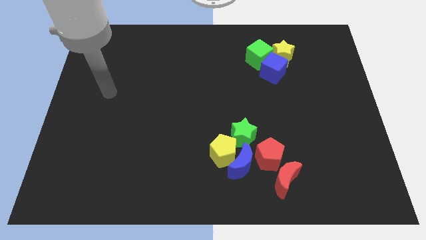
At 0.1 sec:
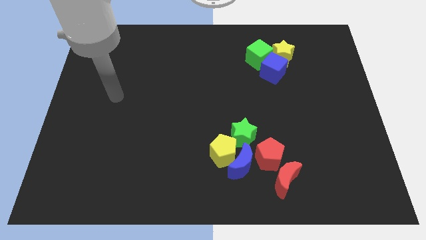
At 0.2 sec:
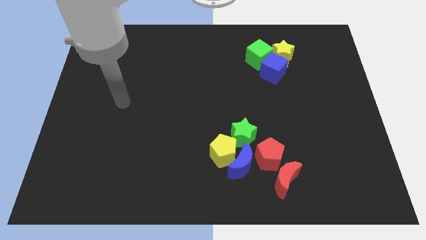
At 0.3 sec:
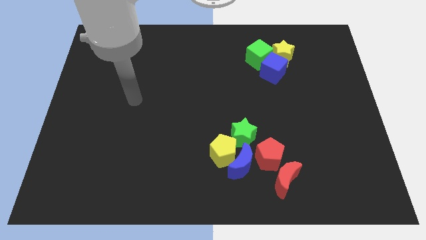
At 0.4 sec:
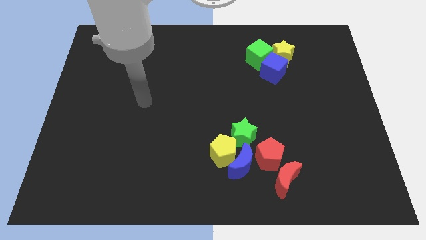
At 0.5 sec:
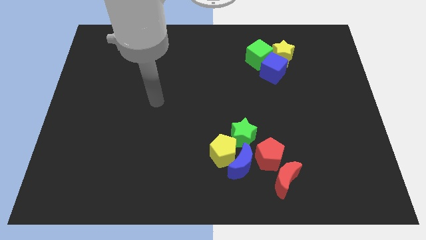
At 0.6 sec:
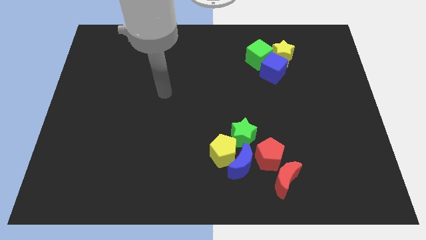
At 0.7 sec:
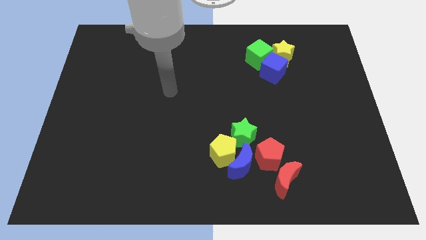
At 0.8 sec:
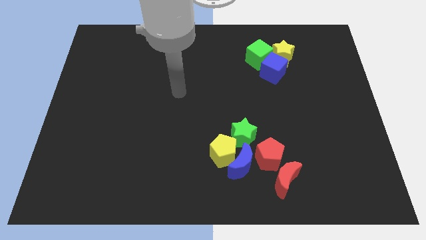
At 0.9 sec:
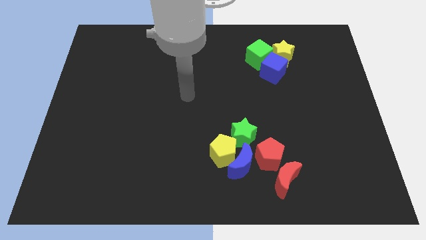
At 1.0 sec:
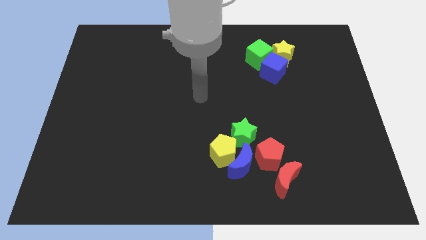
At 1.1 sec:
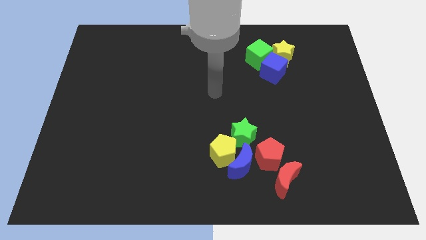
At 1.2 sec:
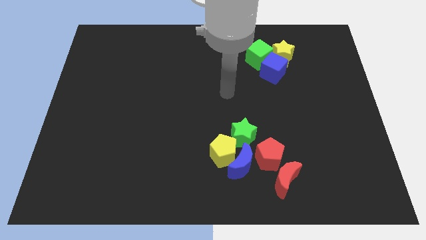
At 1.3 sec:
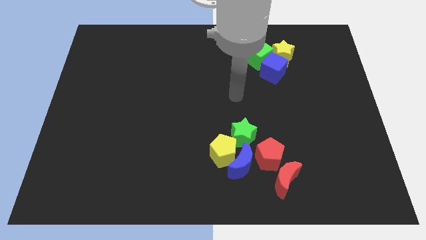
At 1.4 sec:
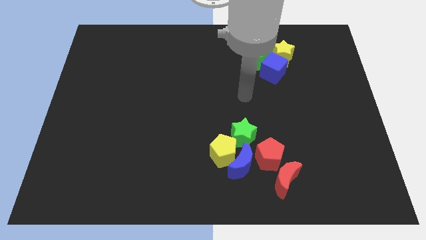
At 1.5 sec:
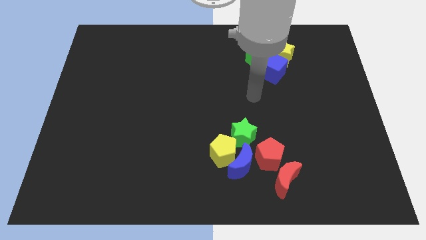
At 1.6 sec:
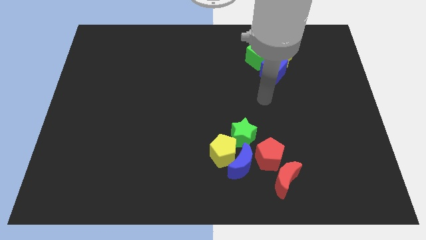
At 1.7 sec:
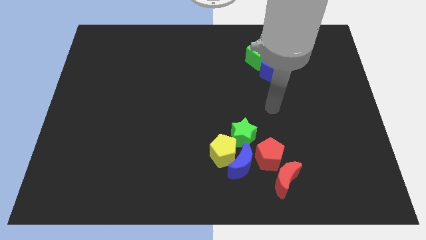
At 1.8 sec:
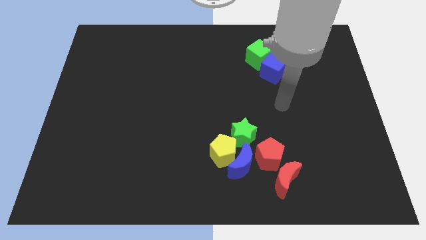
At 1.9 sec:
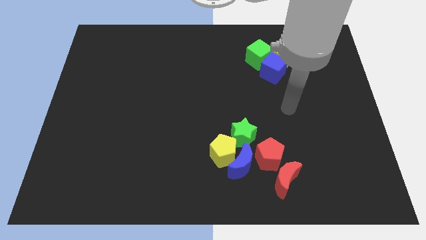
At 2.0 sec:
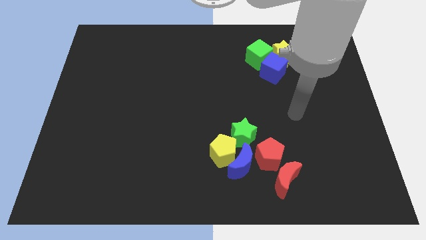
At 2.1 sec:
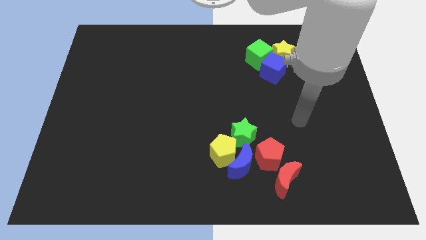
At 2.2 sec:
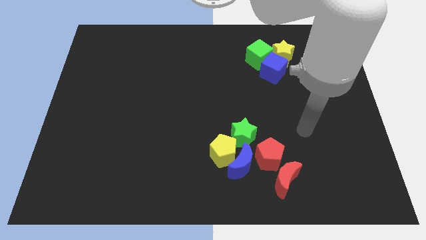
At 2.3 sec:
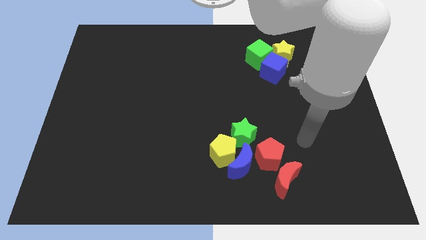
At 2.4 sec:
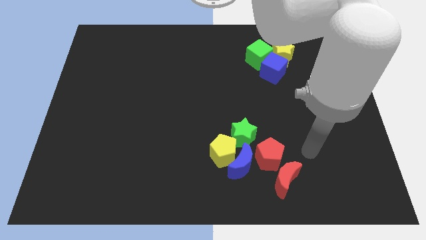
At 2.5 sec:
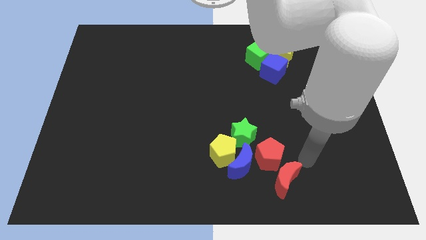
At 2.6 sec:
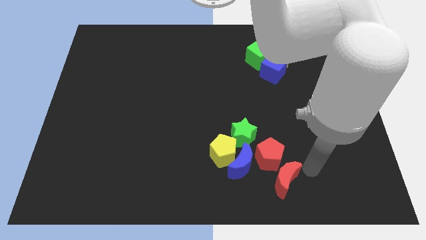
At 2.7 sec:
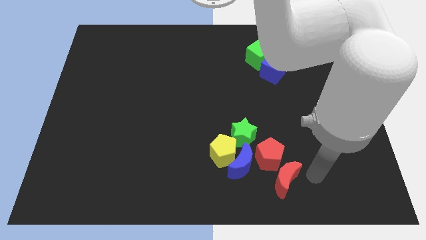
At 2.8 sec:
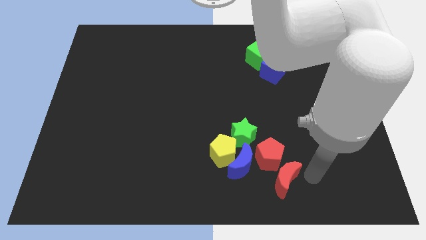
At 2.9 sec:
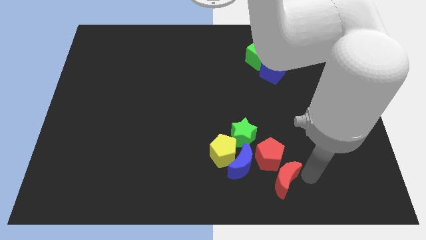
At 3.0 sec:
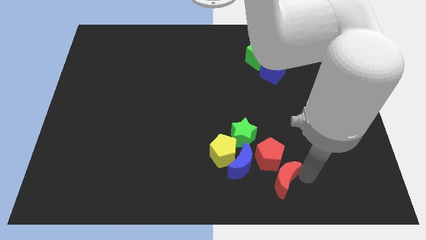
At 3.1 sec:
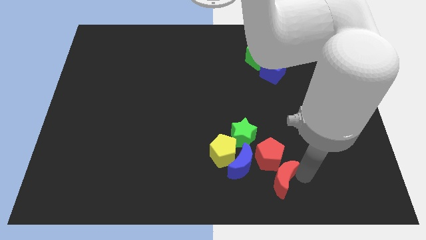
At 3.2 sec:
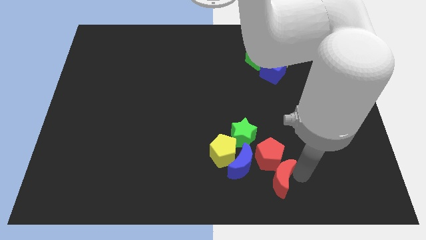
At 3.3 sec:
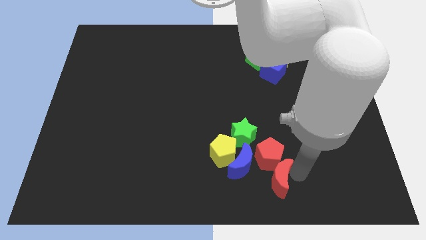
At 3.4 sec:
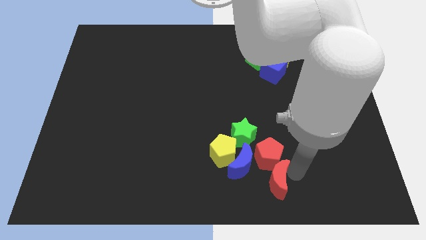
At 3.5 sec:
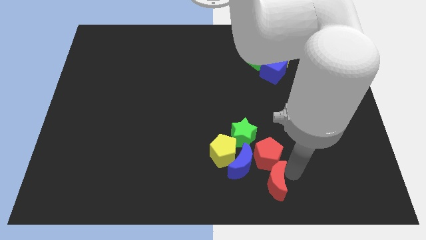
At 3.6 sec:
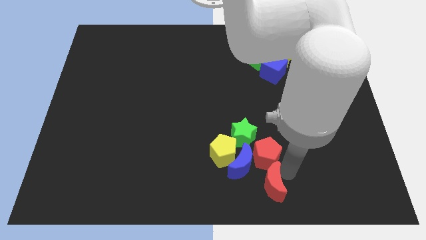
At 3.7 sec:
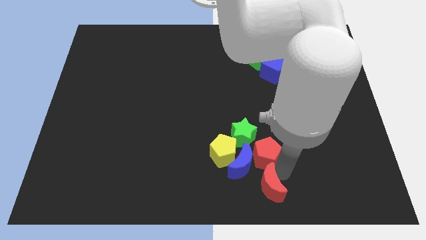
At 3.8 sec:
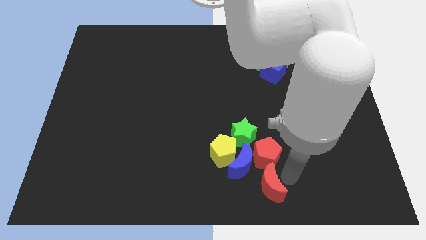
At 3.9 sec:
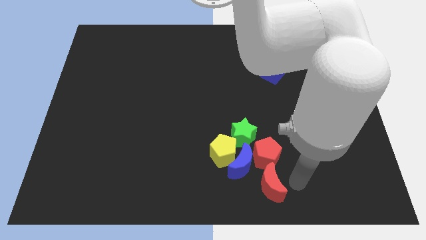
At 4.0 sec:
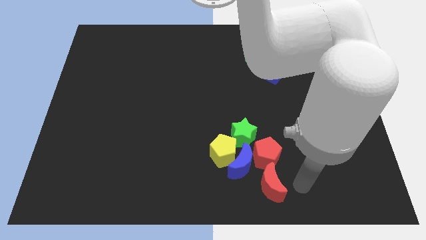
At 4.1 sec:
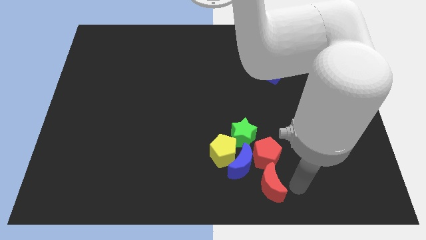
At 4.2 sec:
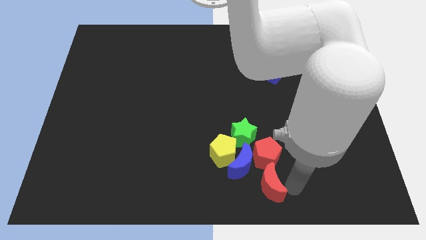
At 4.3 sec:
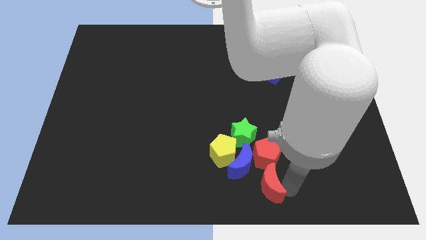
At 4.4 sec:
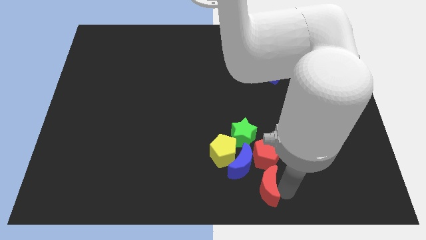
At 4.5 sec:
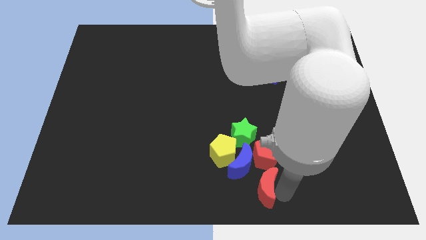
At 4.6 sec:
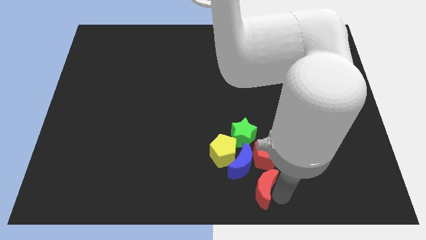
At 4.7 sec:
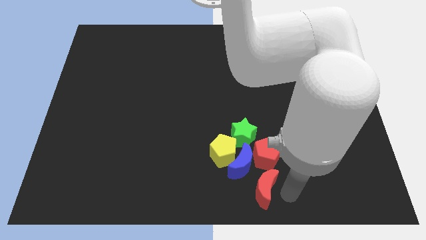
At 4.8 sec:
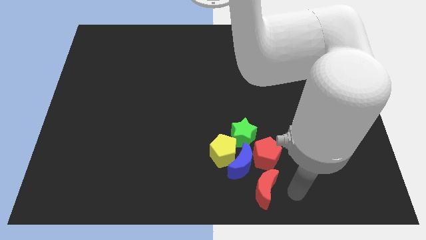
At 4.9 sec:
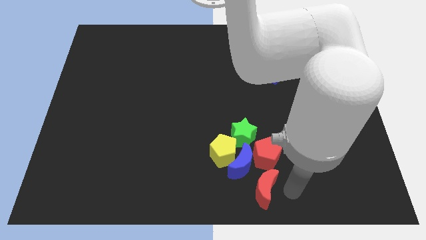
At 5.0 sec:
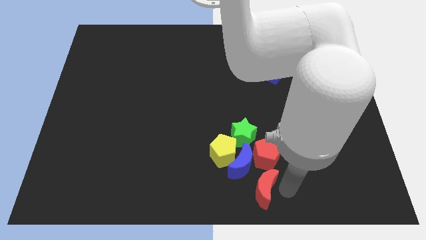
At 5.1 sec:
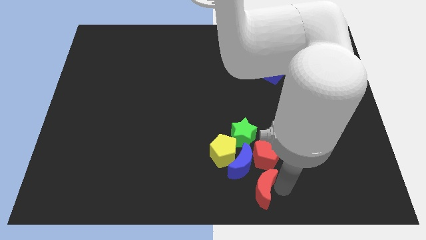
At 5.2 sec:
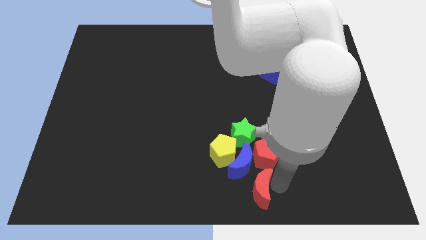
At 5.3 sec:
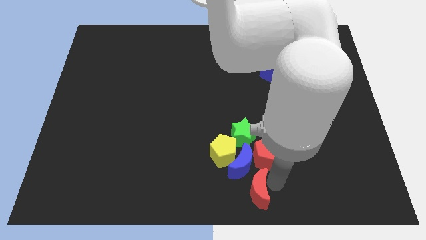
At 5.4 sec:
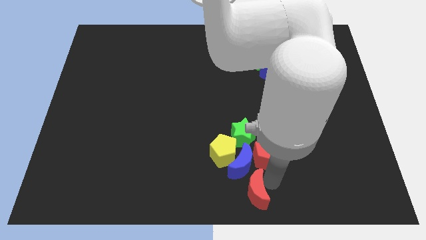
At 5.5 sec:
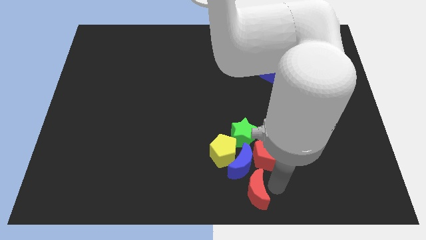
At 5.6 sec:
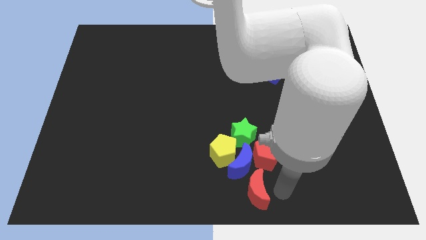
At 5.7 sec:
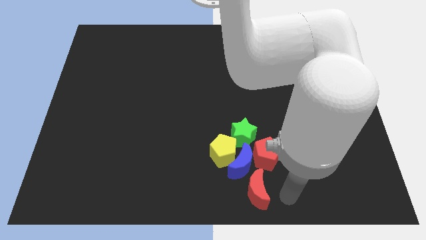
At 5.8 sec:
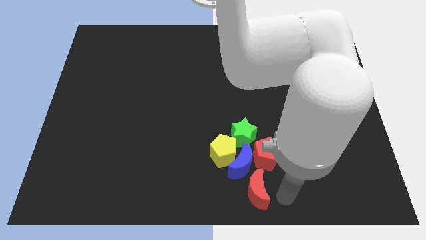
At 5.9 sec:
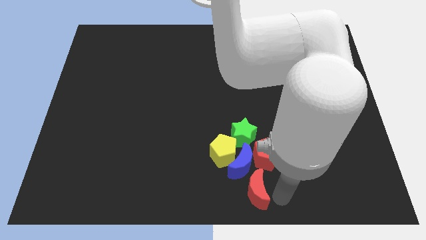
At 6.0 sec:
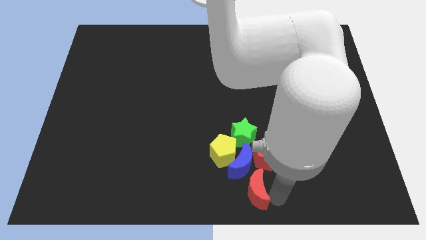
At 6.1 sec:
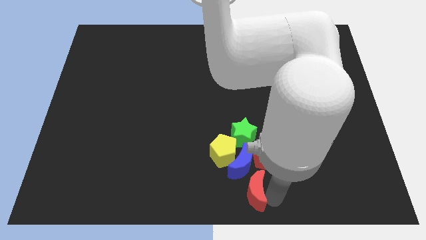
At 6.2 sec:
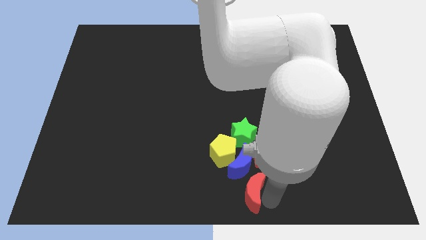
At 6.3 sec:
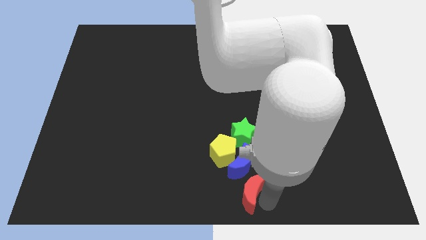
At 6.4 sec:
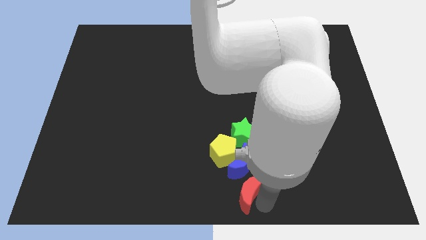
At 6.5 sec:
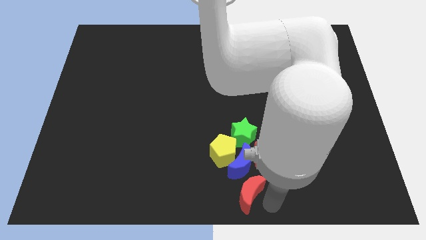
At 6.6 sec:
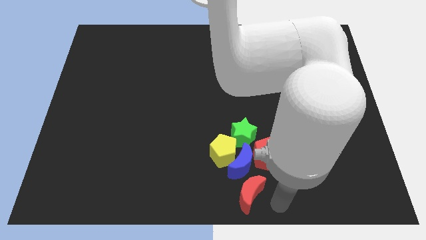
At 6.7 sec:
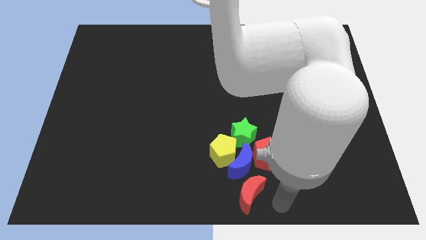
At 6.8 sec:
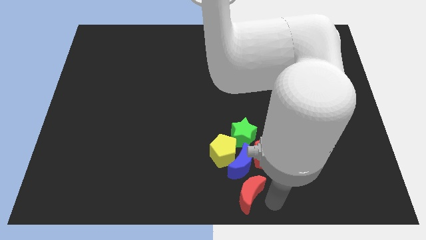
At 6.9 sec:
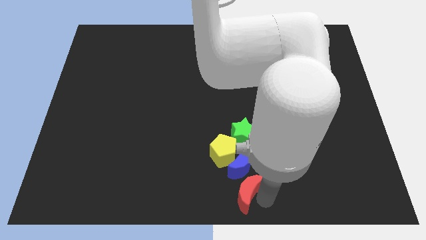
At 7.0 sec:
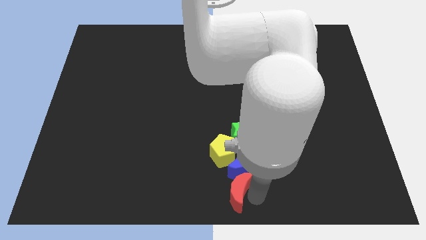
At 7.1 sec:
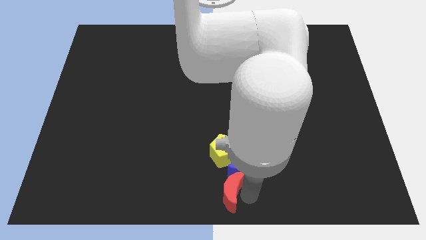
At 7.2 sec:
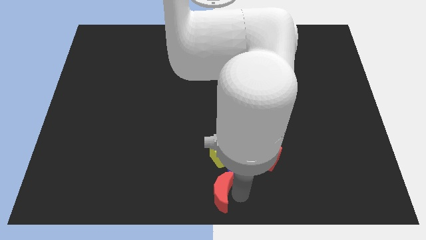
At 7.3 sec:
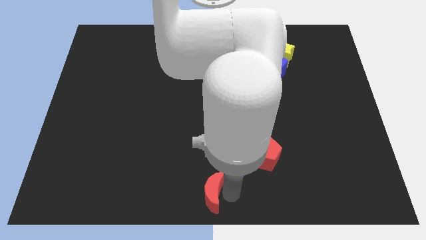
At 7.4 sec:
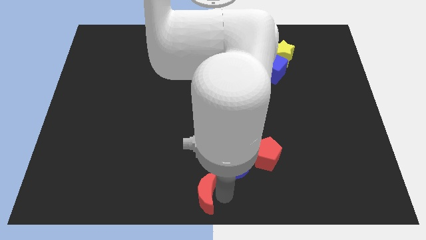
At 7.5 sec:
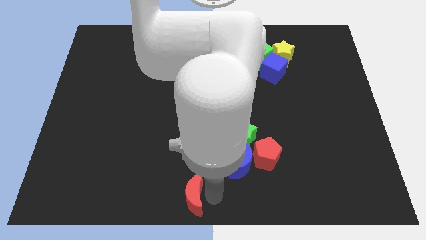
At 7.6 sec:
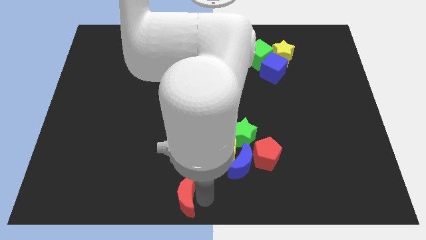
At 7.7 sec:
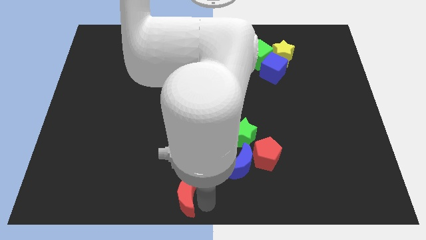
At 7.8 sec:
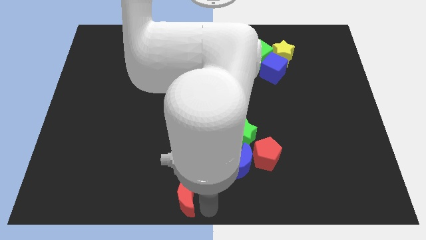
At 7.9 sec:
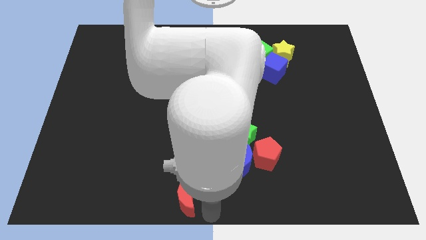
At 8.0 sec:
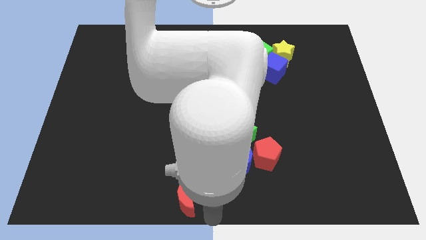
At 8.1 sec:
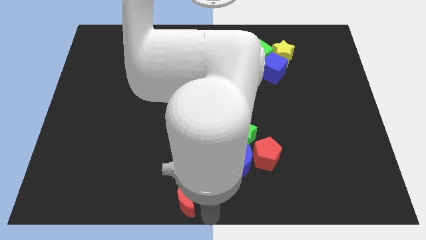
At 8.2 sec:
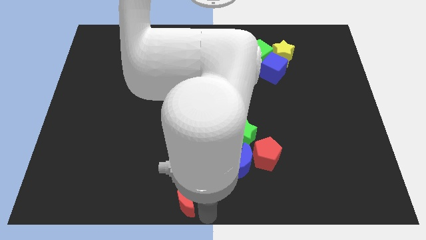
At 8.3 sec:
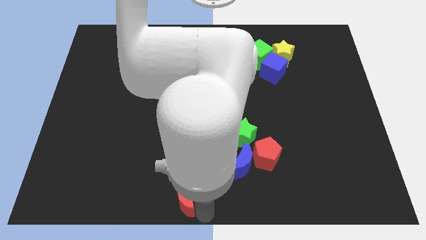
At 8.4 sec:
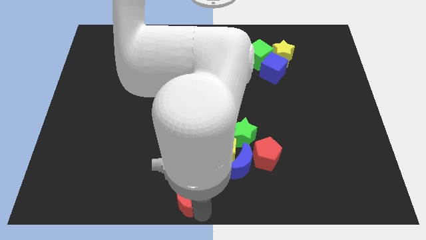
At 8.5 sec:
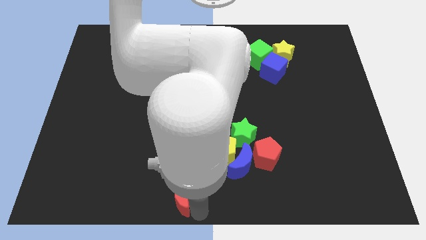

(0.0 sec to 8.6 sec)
slide the red moon to the left
